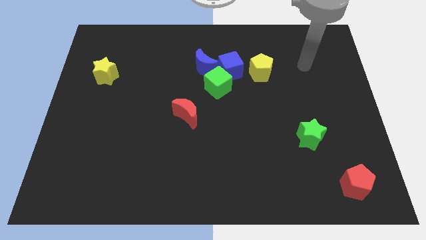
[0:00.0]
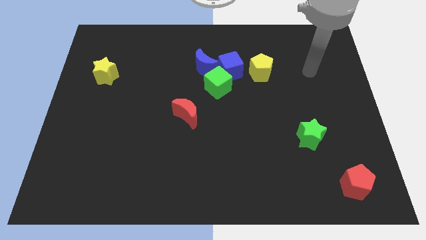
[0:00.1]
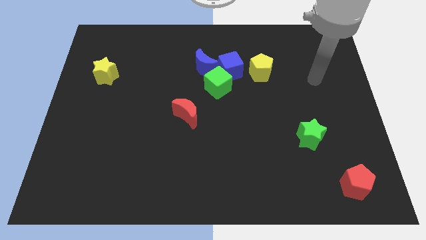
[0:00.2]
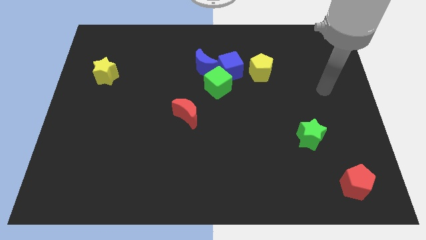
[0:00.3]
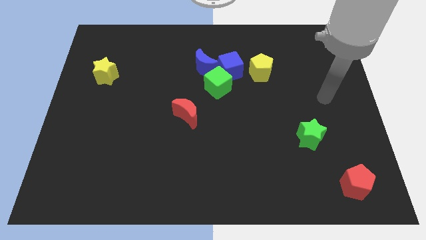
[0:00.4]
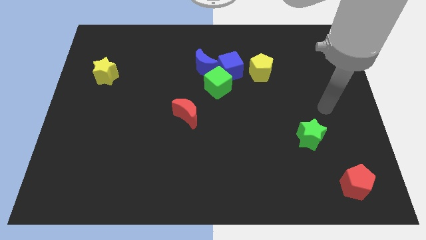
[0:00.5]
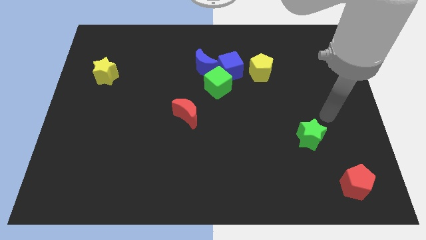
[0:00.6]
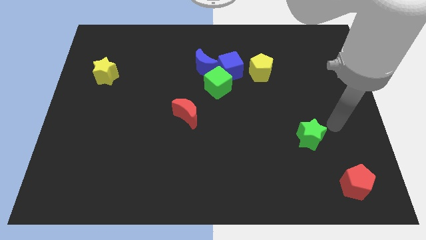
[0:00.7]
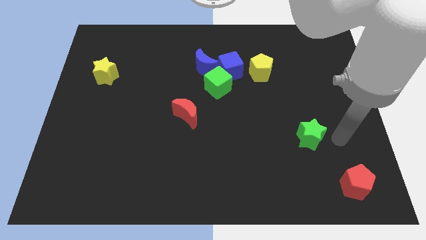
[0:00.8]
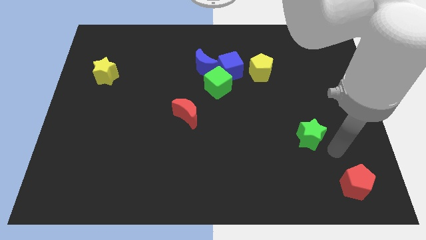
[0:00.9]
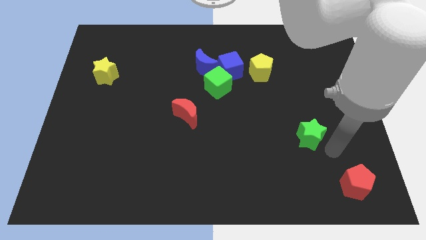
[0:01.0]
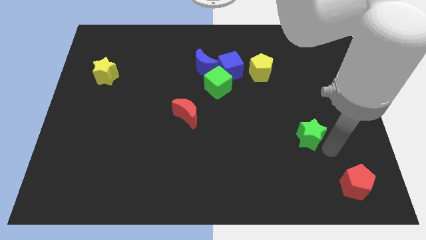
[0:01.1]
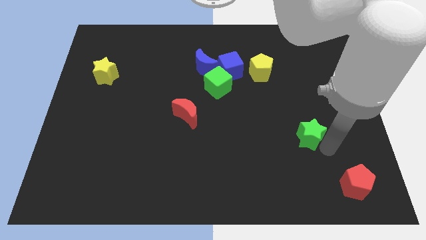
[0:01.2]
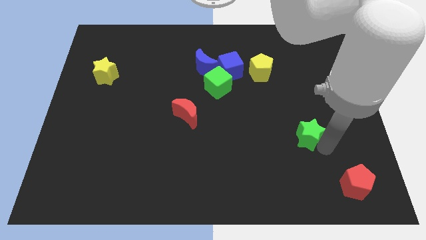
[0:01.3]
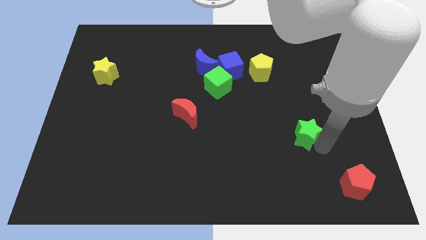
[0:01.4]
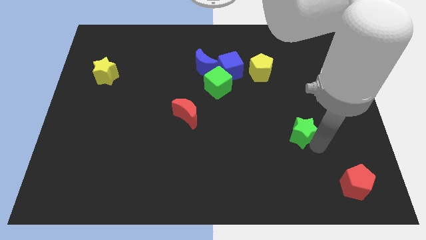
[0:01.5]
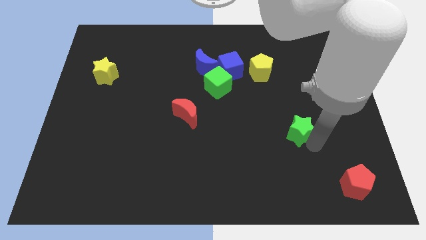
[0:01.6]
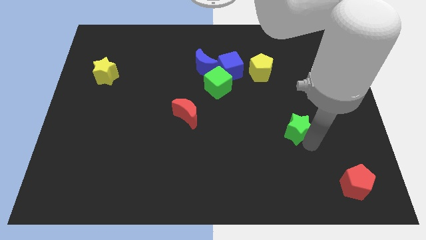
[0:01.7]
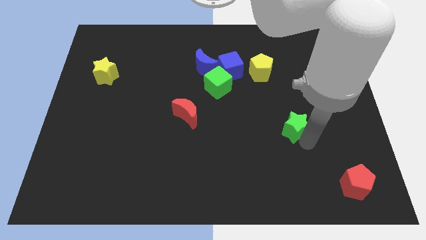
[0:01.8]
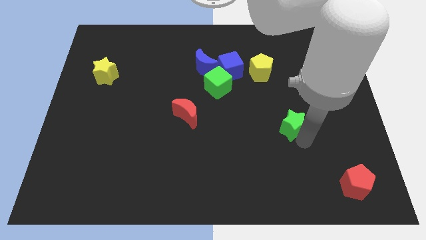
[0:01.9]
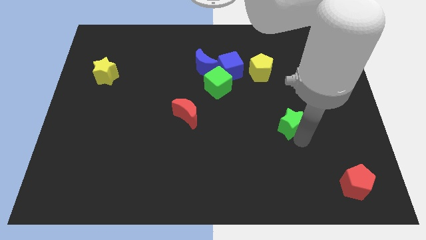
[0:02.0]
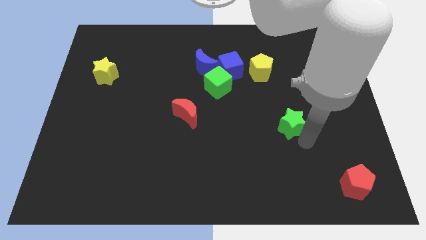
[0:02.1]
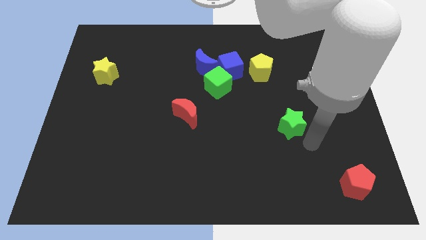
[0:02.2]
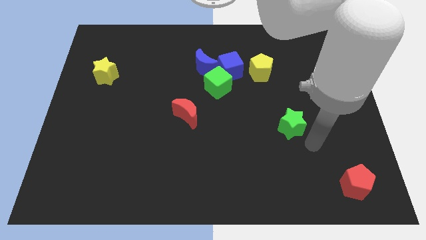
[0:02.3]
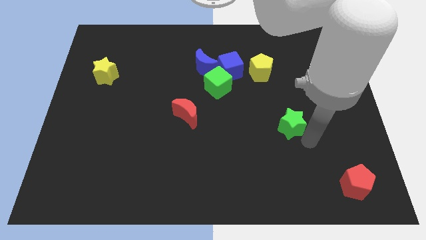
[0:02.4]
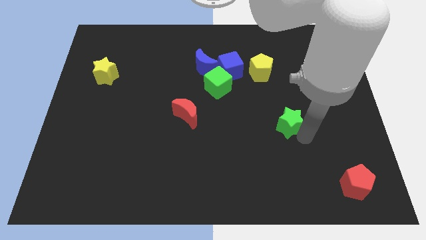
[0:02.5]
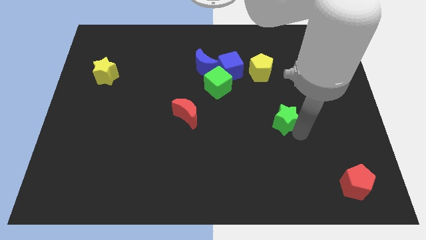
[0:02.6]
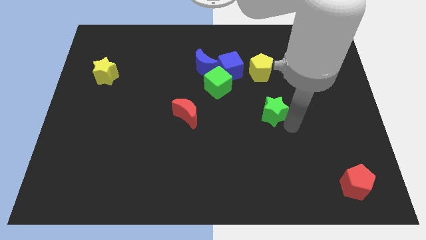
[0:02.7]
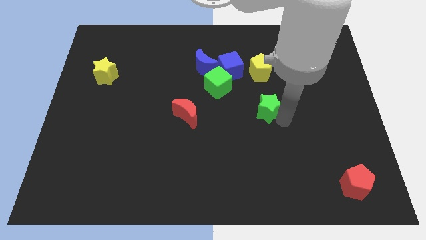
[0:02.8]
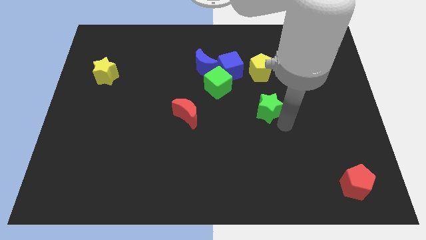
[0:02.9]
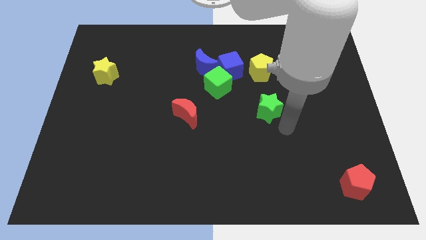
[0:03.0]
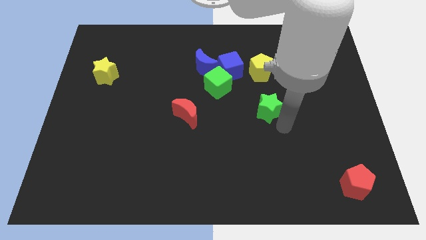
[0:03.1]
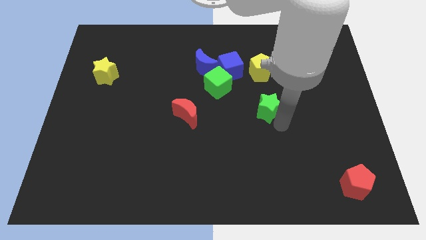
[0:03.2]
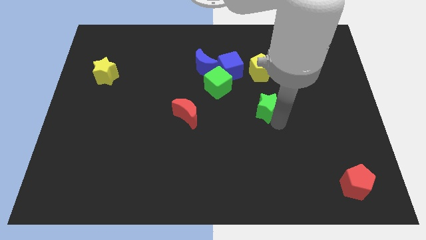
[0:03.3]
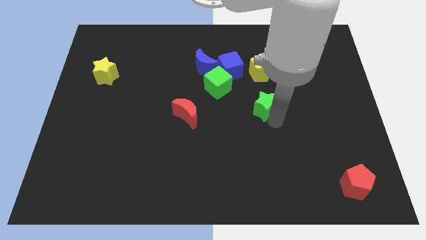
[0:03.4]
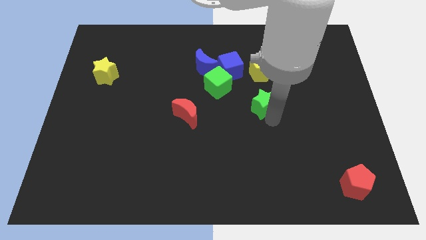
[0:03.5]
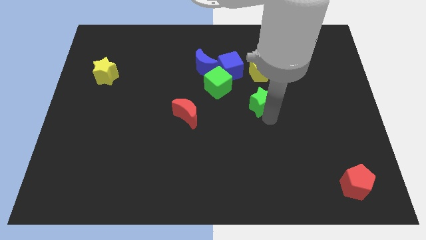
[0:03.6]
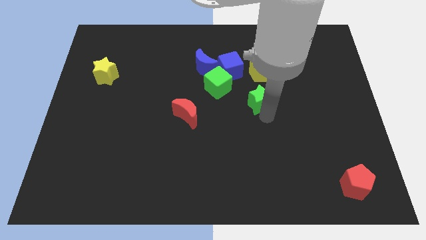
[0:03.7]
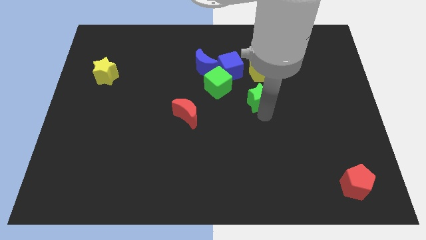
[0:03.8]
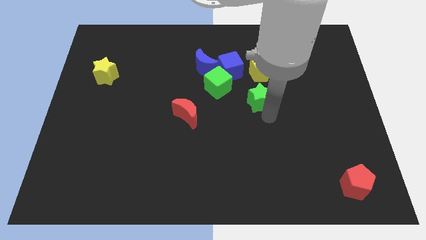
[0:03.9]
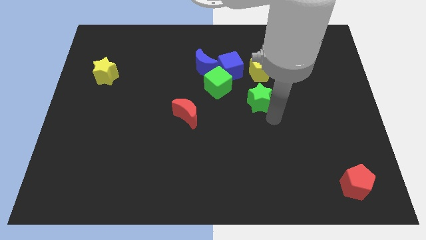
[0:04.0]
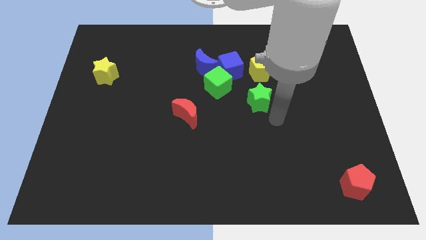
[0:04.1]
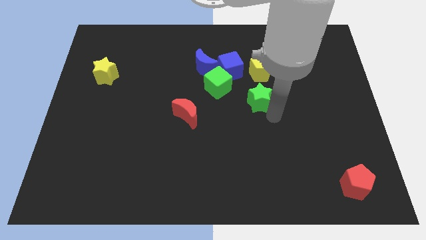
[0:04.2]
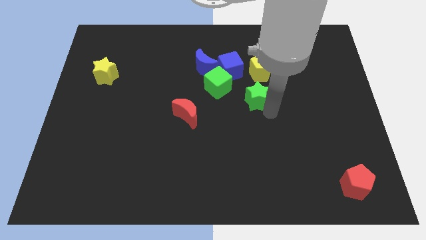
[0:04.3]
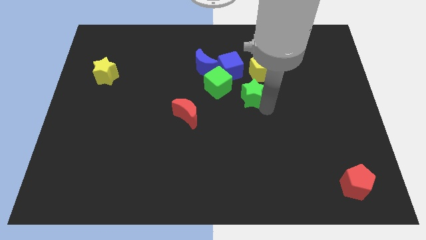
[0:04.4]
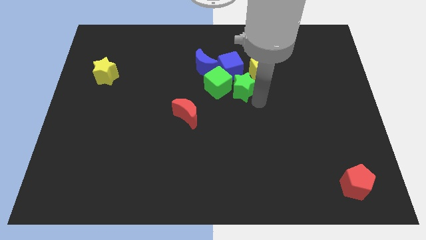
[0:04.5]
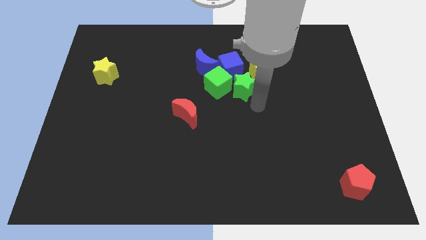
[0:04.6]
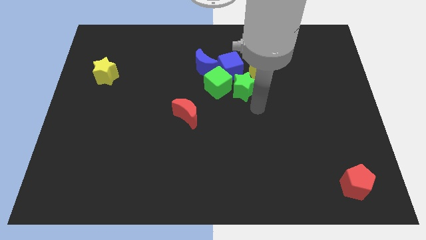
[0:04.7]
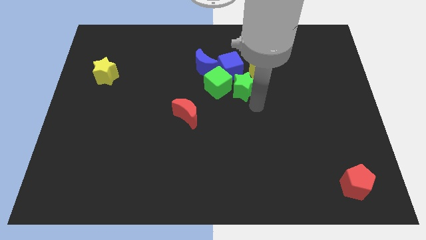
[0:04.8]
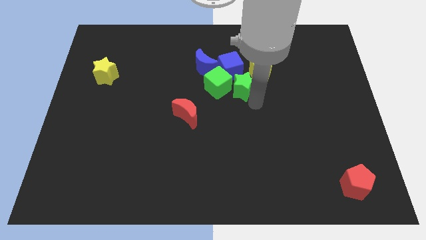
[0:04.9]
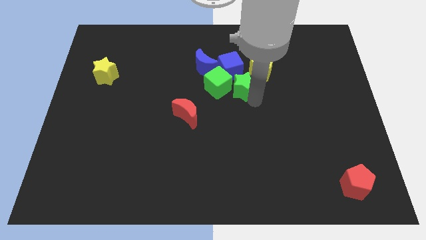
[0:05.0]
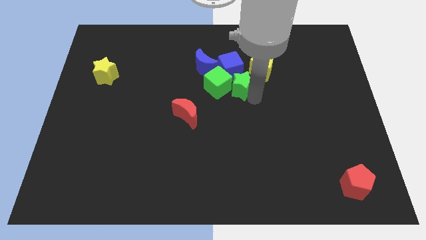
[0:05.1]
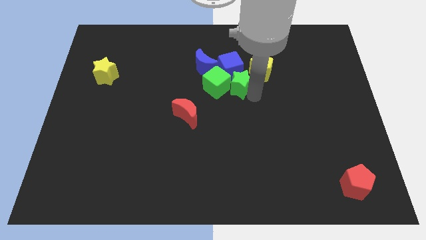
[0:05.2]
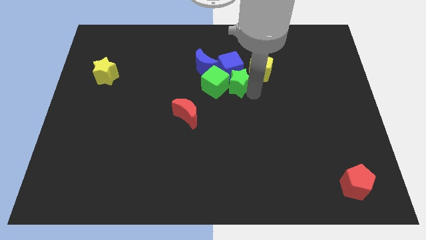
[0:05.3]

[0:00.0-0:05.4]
put the green star to the blue cube

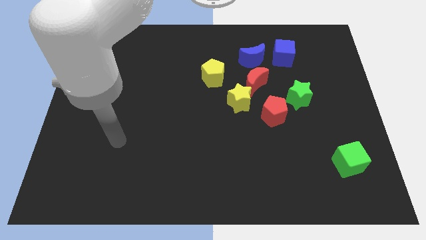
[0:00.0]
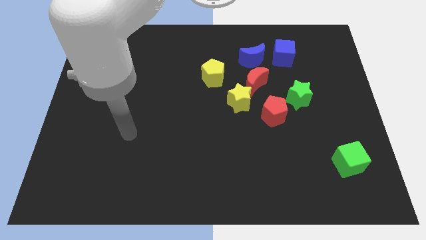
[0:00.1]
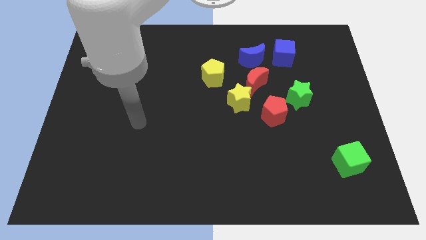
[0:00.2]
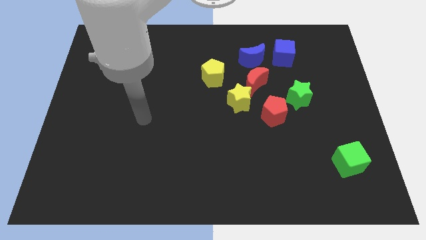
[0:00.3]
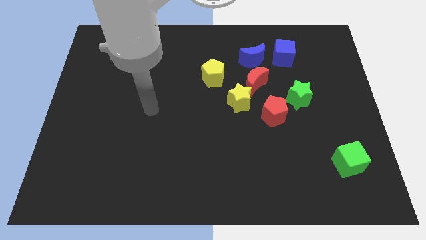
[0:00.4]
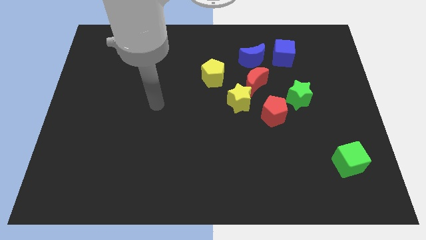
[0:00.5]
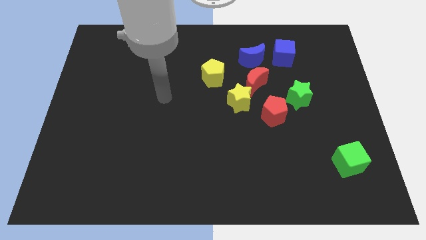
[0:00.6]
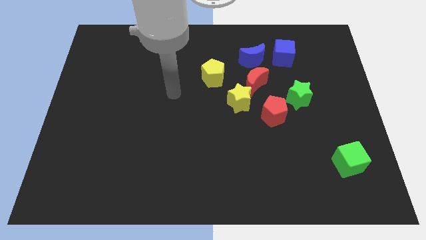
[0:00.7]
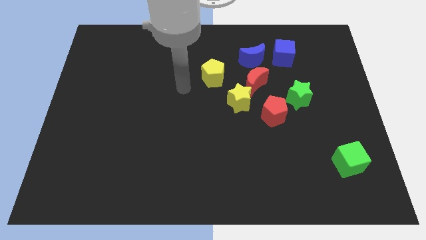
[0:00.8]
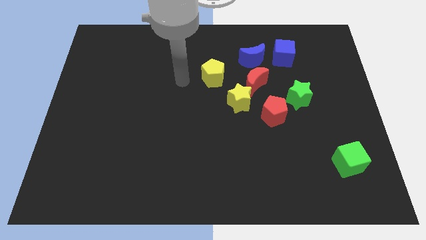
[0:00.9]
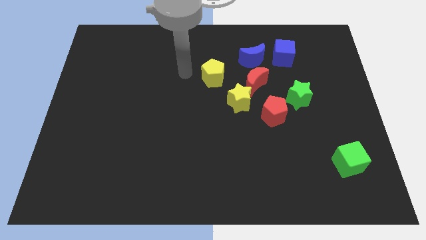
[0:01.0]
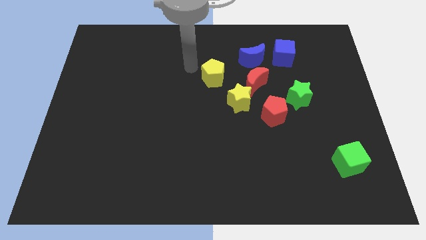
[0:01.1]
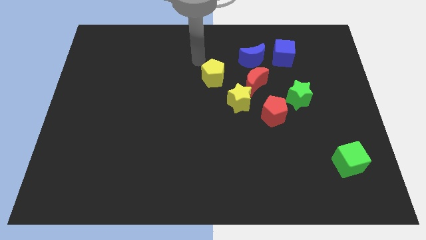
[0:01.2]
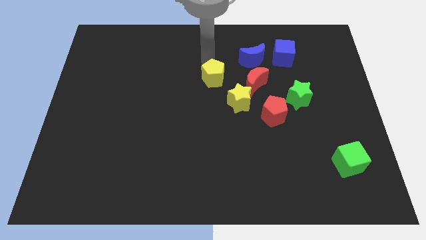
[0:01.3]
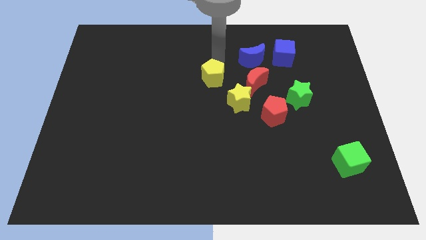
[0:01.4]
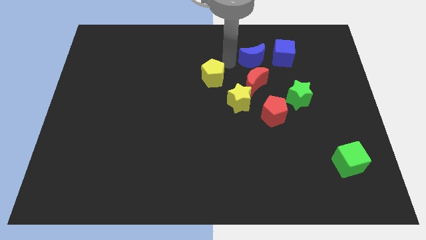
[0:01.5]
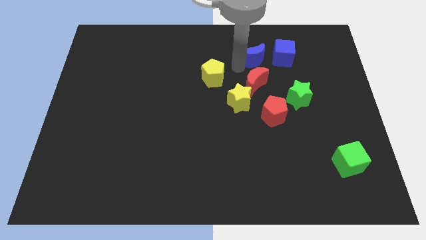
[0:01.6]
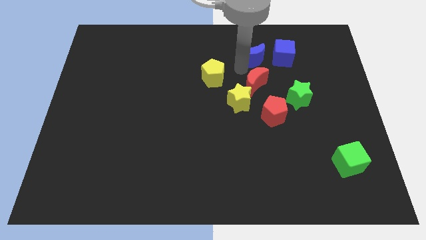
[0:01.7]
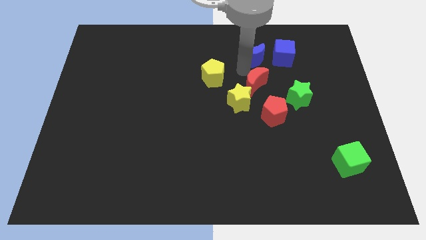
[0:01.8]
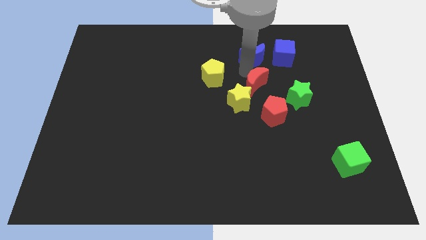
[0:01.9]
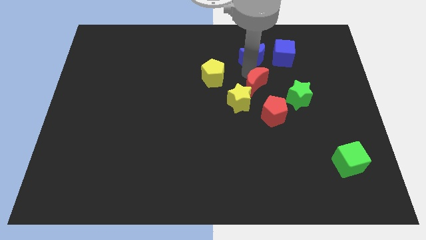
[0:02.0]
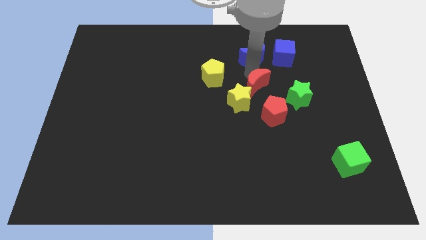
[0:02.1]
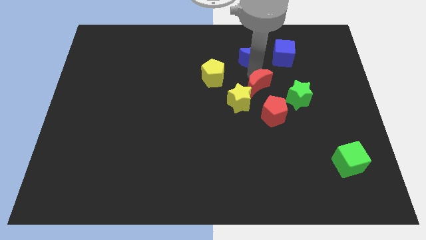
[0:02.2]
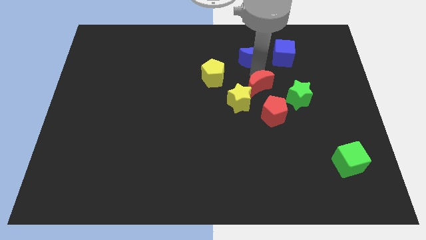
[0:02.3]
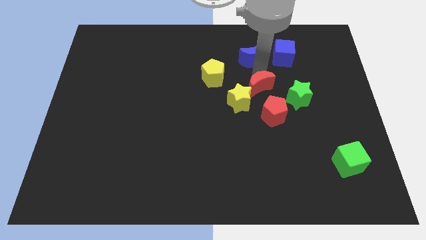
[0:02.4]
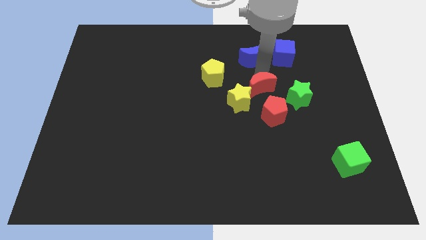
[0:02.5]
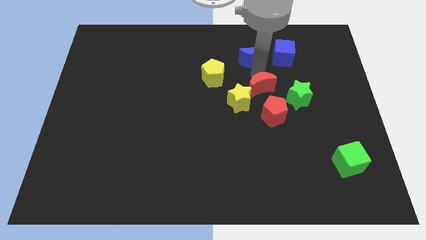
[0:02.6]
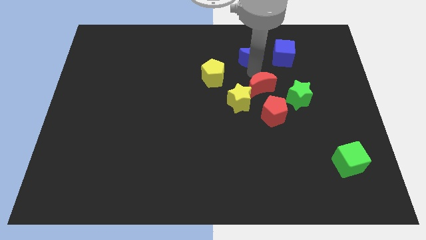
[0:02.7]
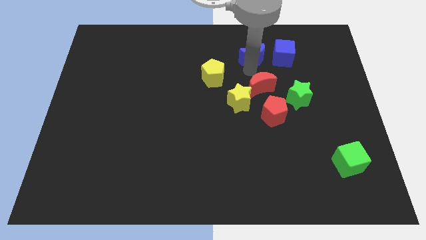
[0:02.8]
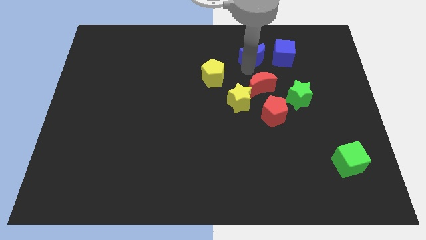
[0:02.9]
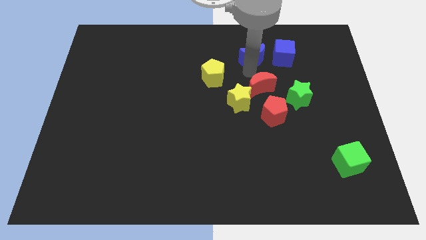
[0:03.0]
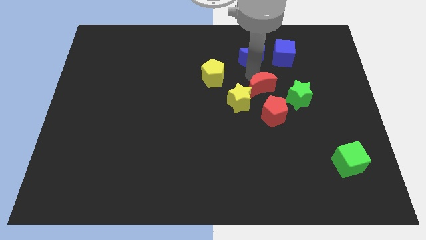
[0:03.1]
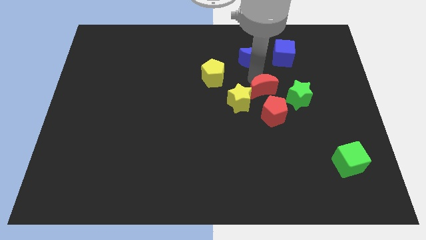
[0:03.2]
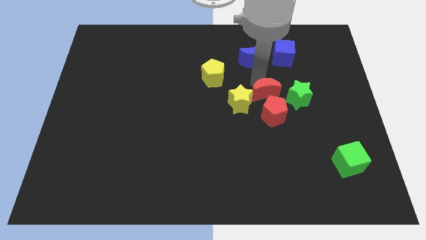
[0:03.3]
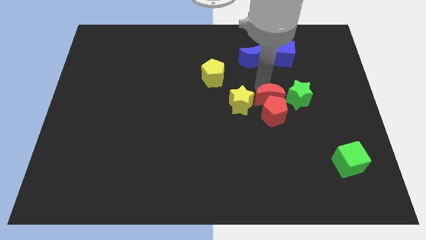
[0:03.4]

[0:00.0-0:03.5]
push the red moon towards the red pentagon
